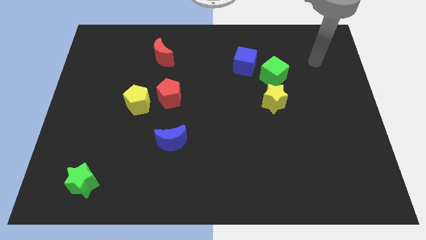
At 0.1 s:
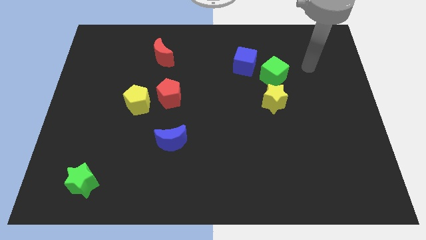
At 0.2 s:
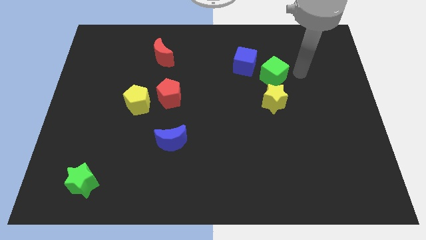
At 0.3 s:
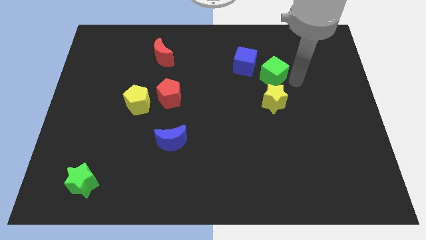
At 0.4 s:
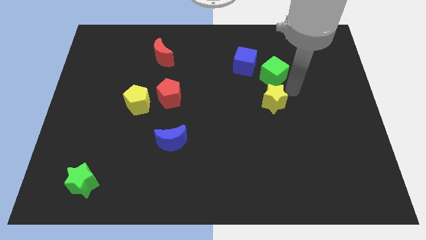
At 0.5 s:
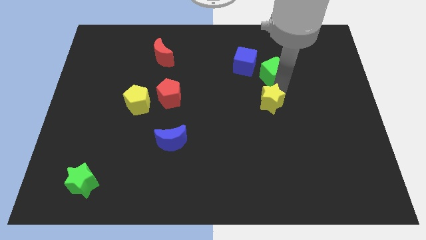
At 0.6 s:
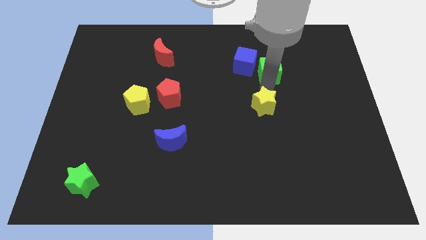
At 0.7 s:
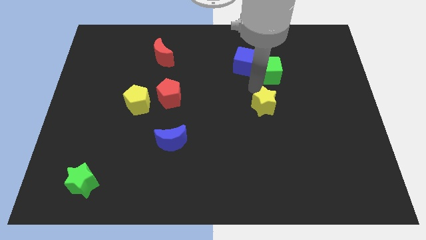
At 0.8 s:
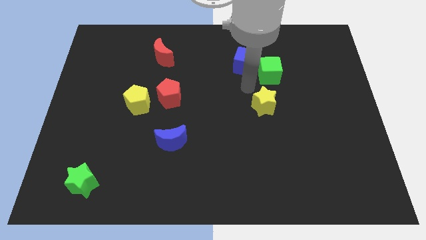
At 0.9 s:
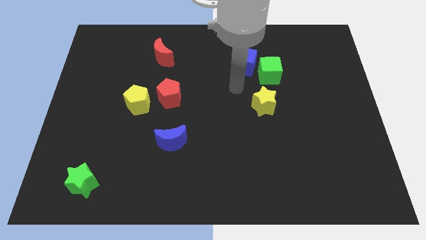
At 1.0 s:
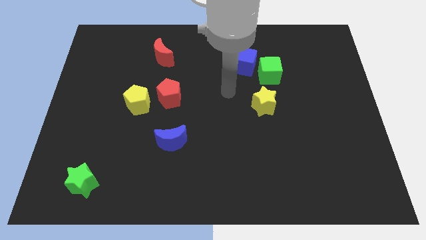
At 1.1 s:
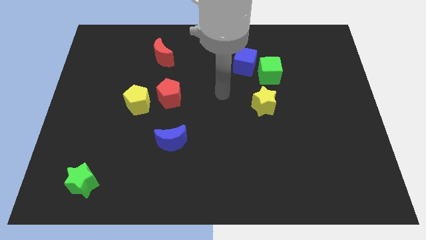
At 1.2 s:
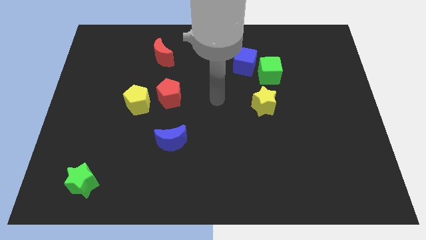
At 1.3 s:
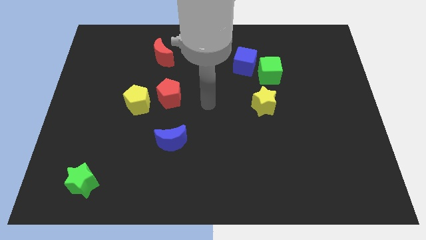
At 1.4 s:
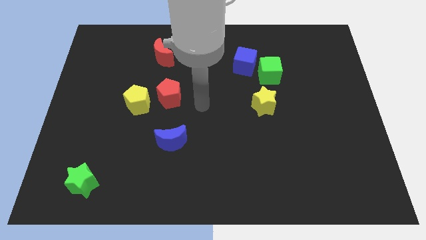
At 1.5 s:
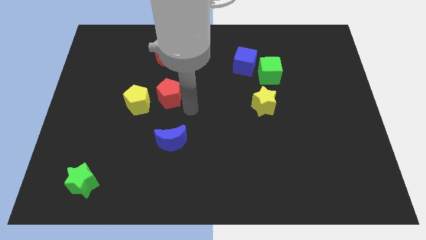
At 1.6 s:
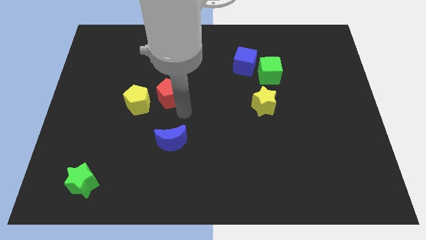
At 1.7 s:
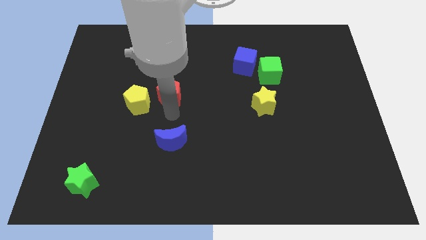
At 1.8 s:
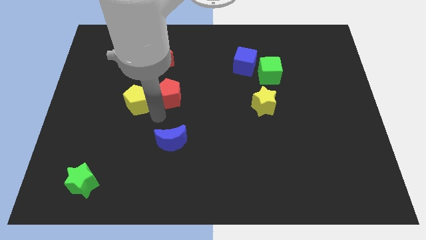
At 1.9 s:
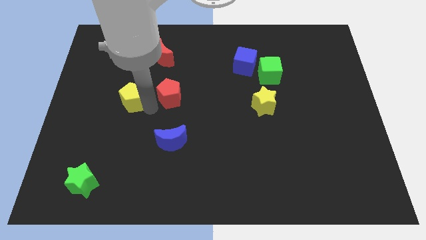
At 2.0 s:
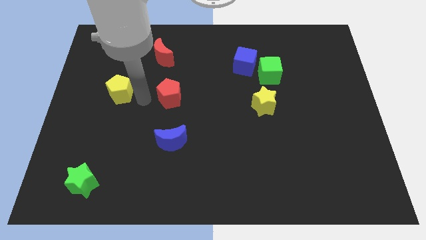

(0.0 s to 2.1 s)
separate the red pentagon from the yellow pentagon

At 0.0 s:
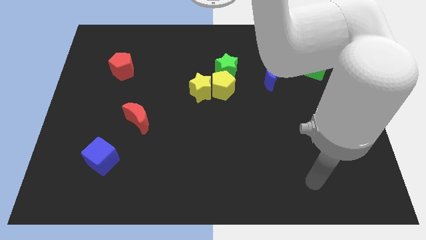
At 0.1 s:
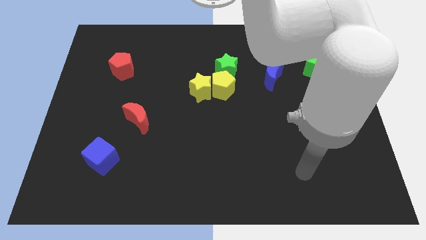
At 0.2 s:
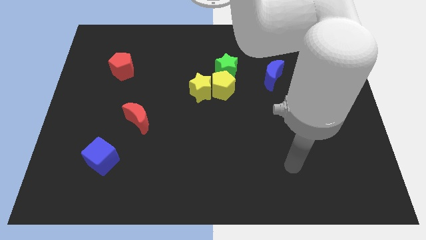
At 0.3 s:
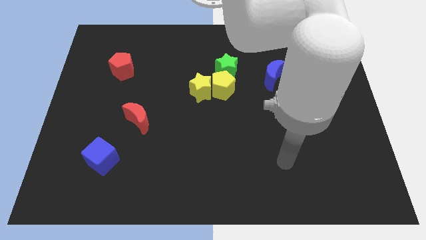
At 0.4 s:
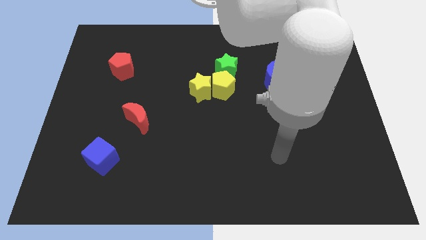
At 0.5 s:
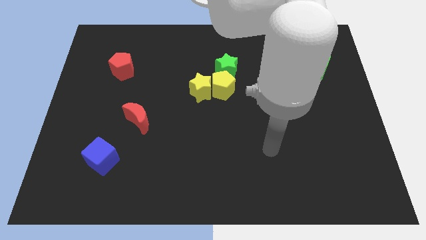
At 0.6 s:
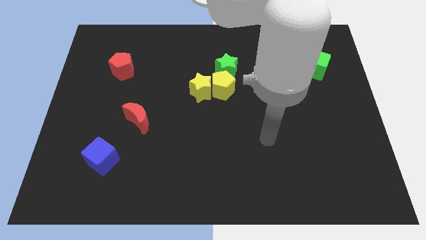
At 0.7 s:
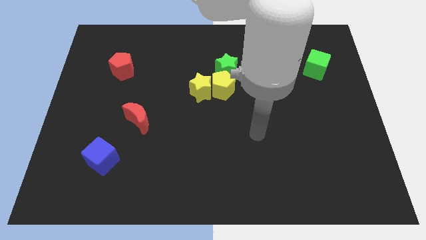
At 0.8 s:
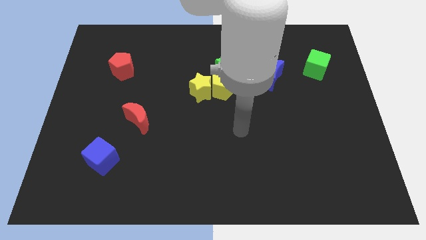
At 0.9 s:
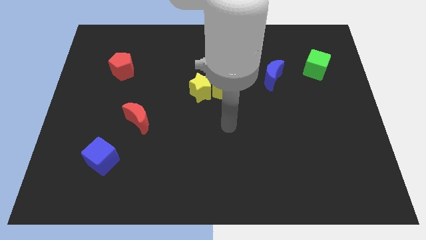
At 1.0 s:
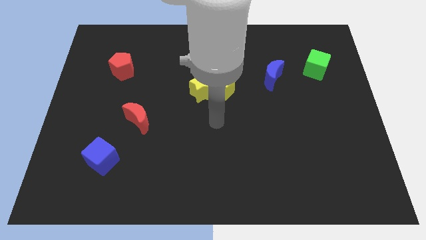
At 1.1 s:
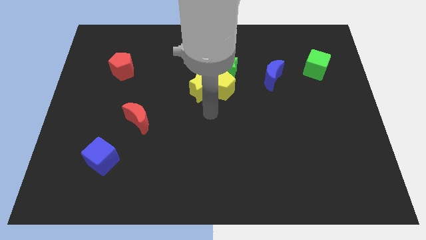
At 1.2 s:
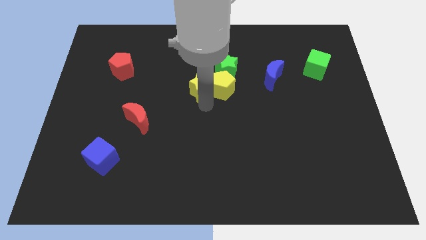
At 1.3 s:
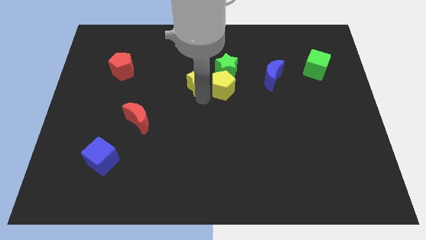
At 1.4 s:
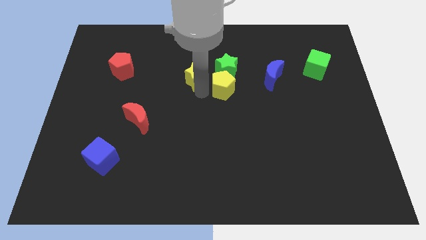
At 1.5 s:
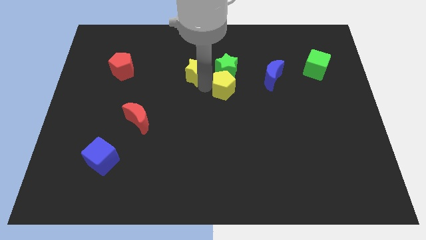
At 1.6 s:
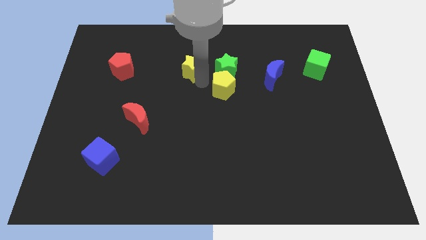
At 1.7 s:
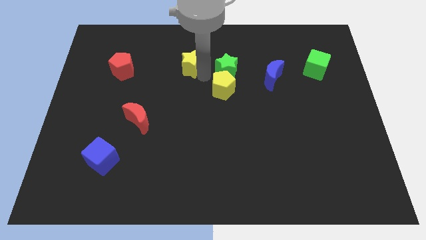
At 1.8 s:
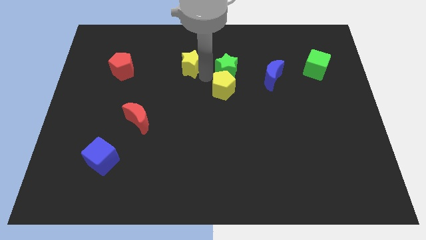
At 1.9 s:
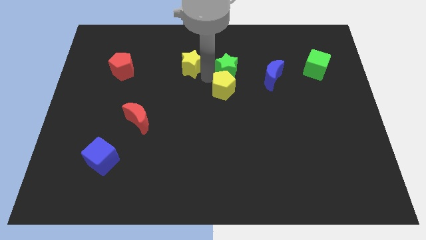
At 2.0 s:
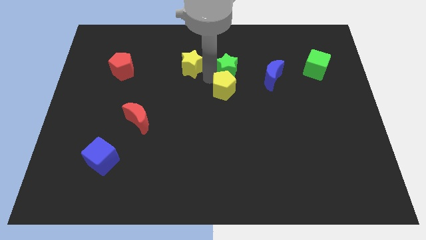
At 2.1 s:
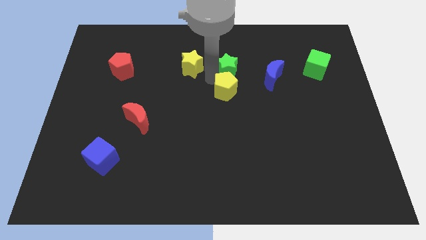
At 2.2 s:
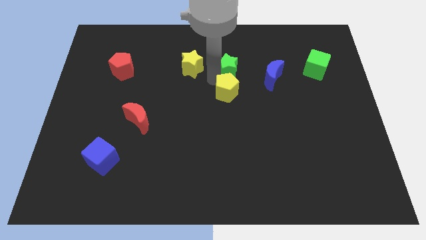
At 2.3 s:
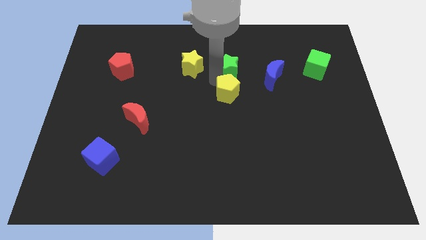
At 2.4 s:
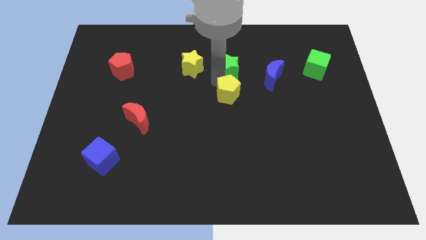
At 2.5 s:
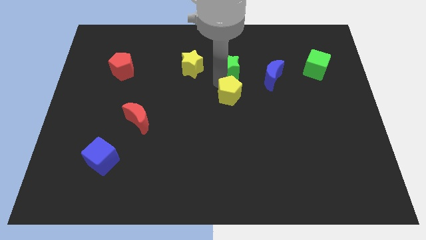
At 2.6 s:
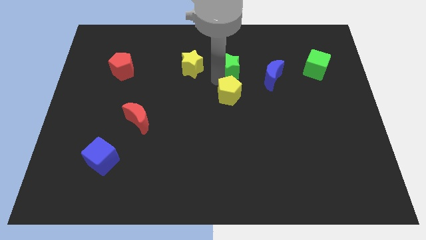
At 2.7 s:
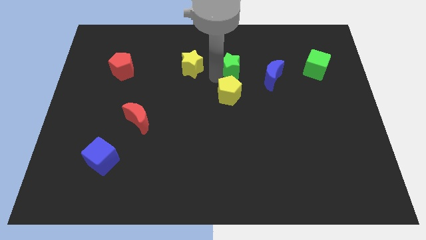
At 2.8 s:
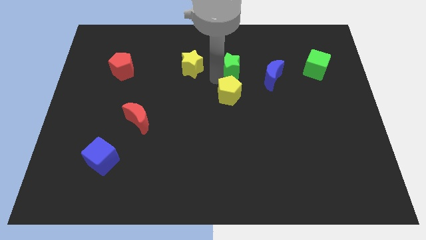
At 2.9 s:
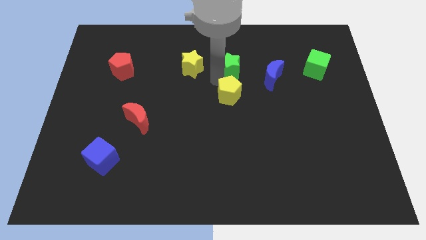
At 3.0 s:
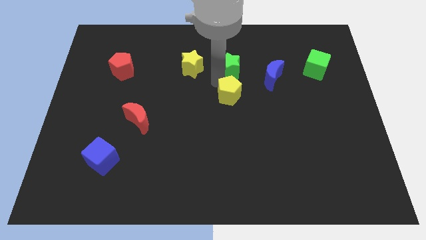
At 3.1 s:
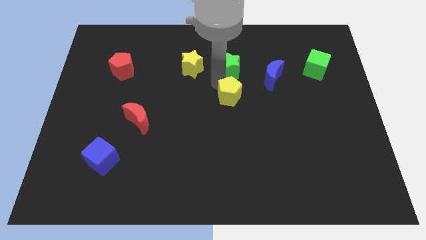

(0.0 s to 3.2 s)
pull the yellow pentagon apart from the yellow star and green star

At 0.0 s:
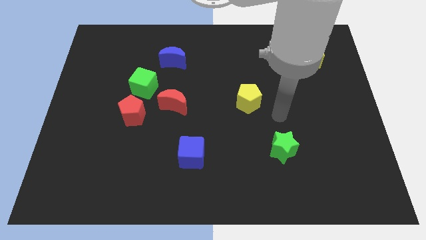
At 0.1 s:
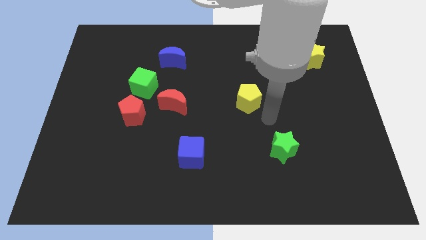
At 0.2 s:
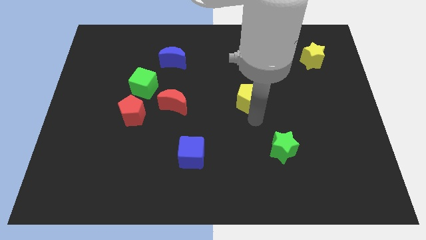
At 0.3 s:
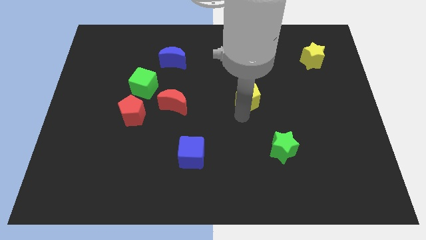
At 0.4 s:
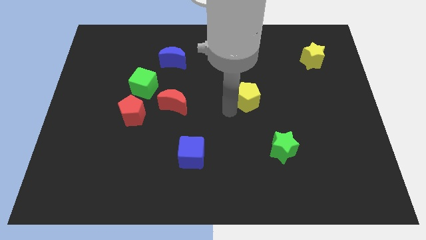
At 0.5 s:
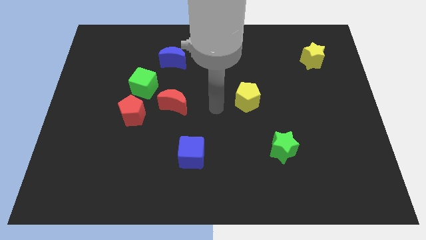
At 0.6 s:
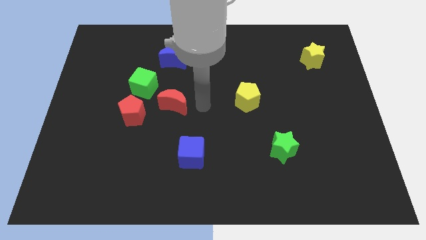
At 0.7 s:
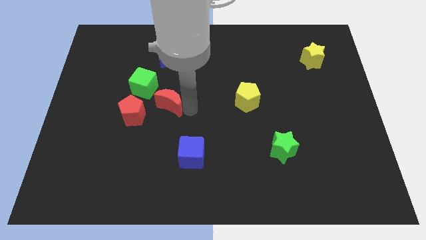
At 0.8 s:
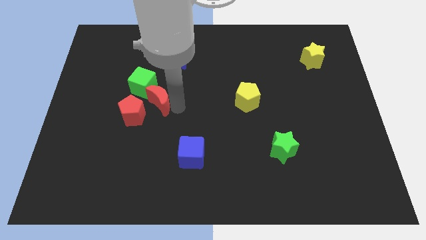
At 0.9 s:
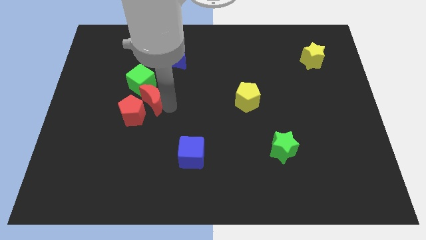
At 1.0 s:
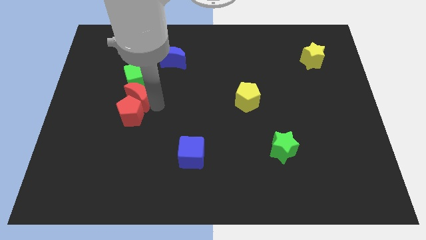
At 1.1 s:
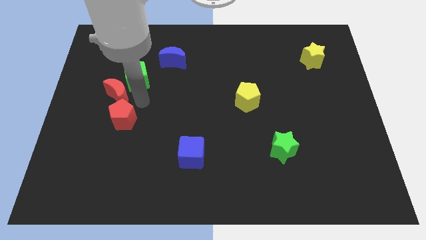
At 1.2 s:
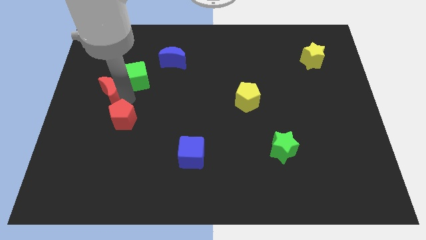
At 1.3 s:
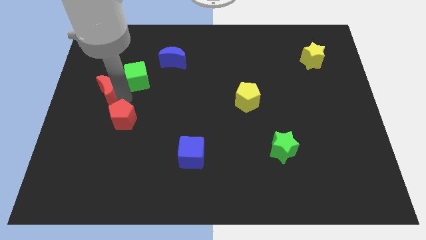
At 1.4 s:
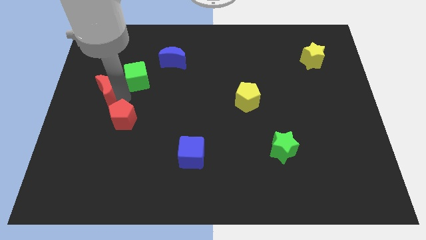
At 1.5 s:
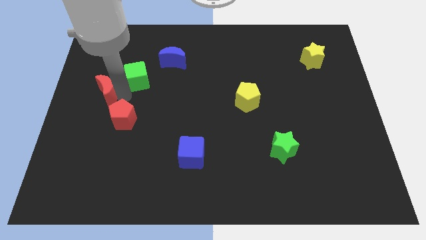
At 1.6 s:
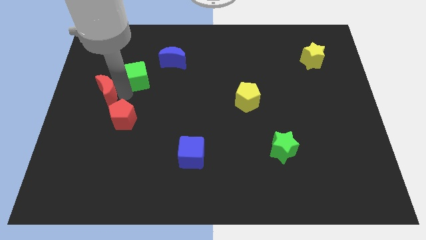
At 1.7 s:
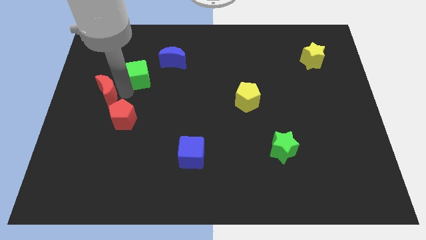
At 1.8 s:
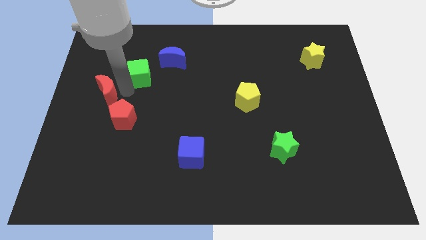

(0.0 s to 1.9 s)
move the green cube away from the red pentagon and red moon

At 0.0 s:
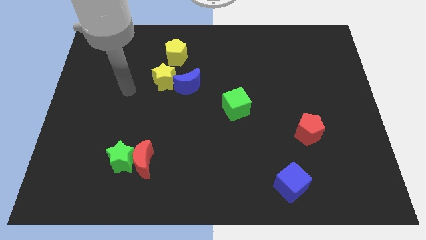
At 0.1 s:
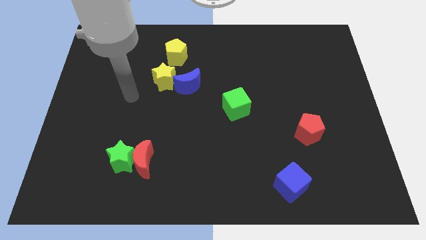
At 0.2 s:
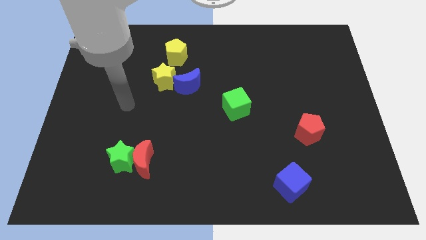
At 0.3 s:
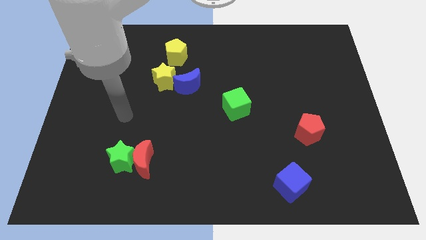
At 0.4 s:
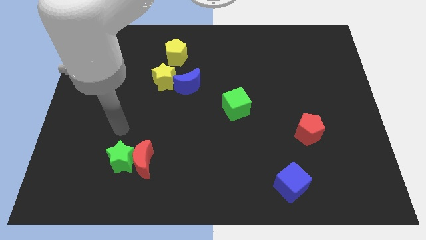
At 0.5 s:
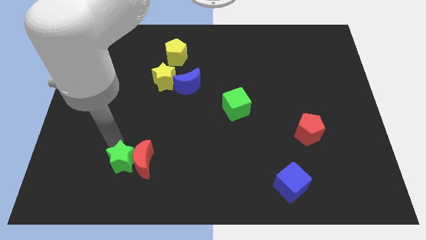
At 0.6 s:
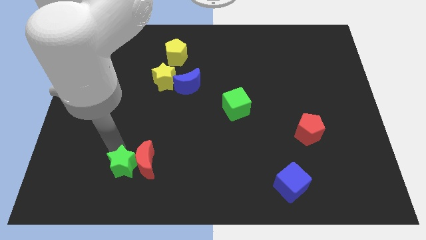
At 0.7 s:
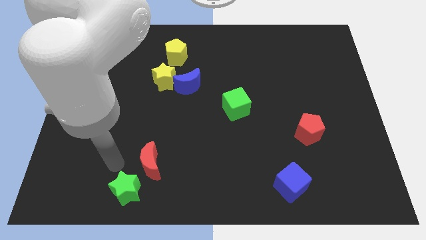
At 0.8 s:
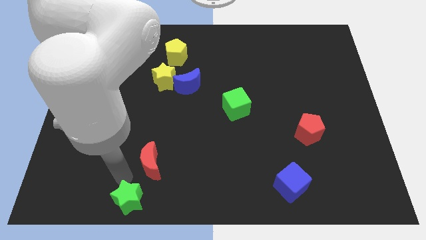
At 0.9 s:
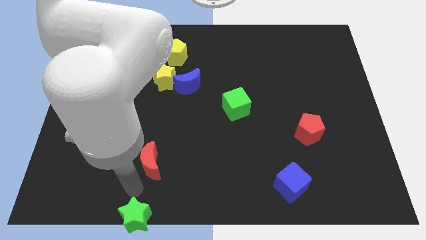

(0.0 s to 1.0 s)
move the red moon away from the green star

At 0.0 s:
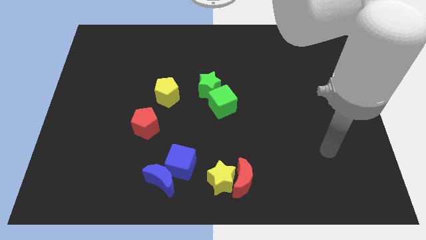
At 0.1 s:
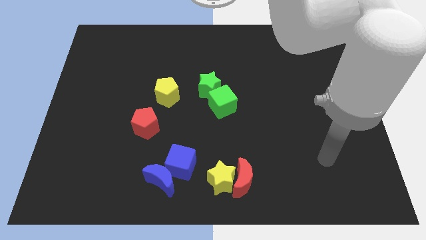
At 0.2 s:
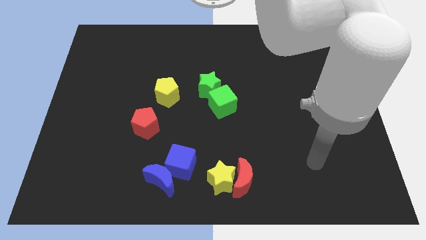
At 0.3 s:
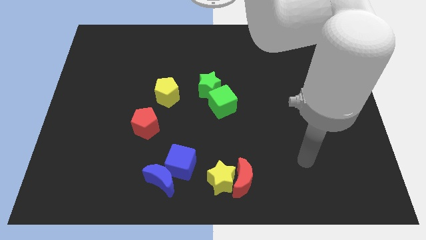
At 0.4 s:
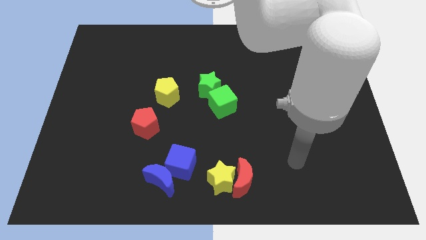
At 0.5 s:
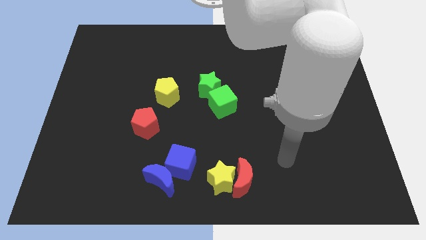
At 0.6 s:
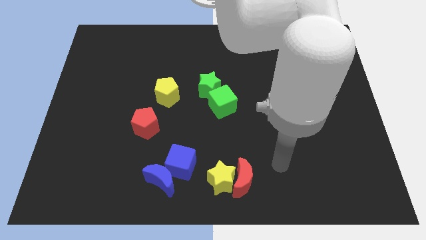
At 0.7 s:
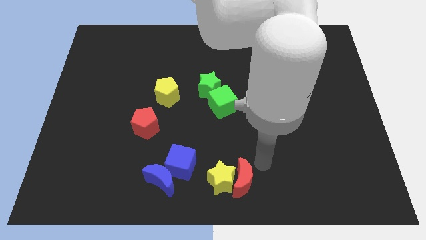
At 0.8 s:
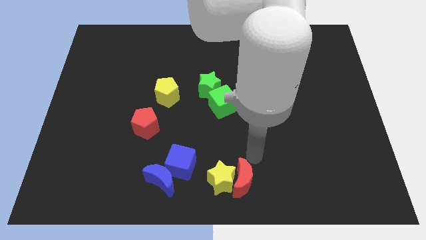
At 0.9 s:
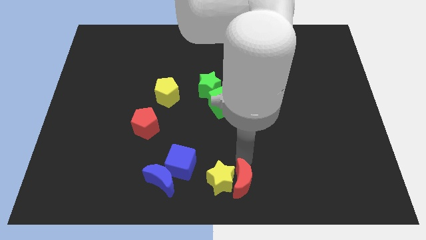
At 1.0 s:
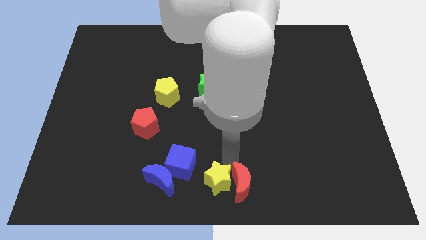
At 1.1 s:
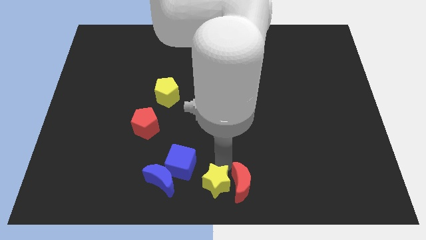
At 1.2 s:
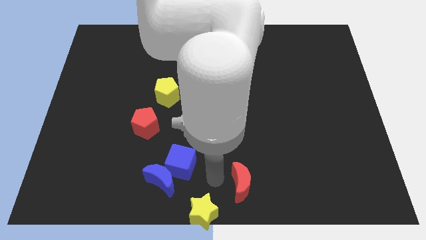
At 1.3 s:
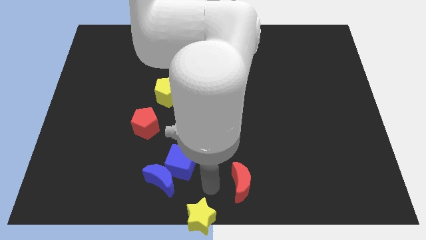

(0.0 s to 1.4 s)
move the red moon away from the yellow star
